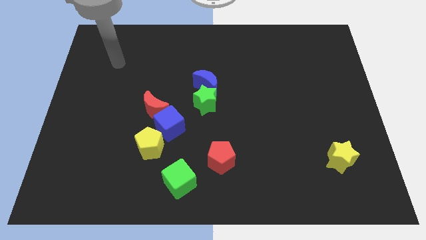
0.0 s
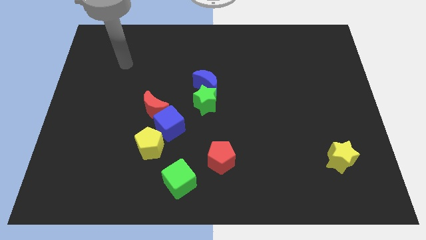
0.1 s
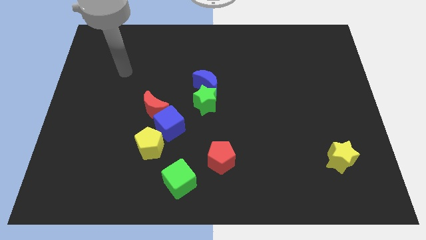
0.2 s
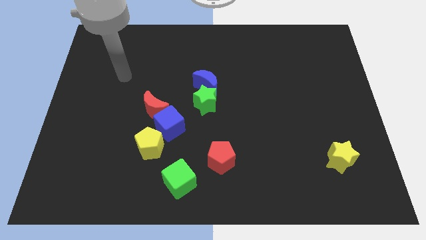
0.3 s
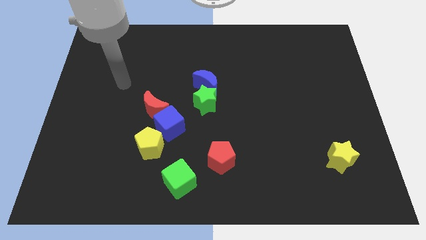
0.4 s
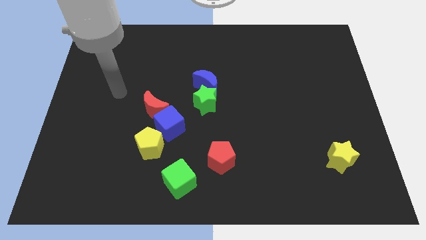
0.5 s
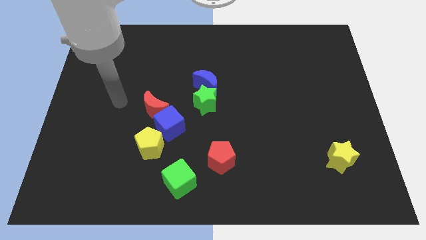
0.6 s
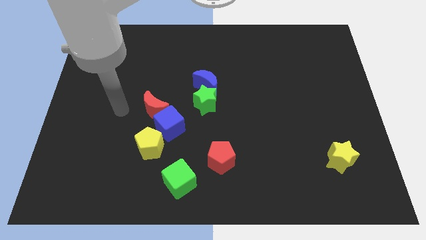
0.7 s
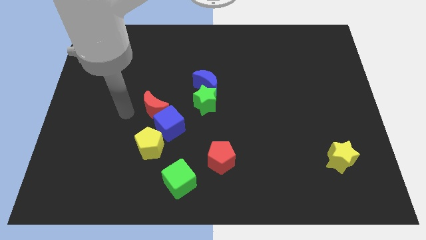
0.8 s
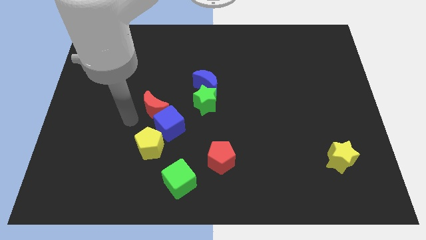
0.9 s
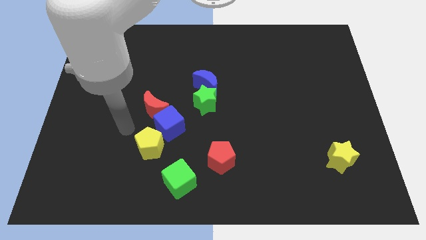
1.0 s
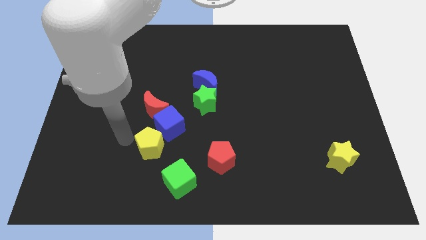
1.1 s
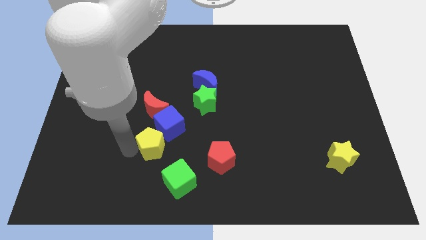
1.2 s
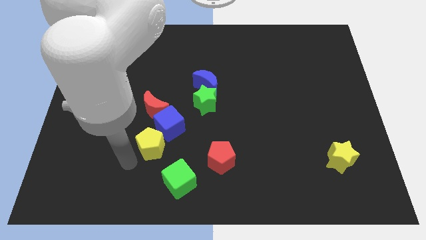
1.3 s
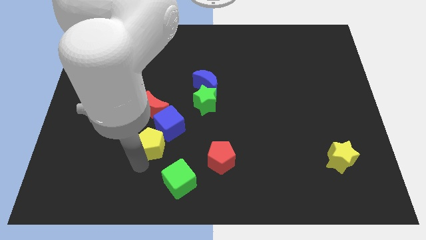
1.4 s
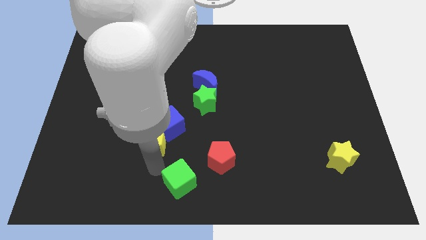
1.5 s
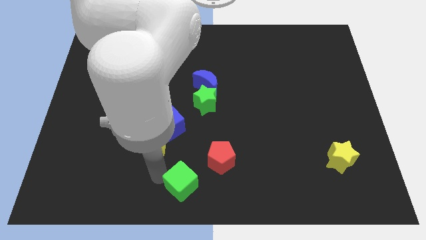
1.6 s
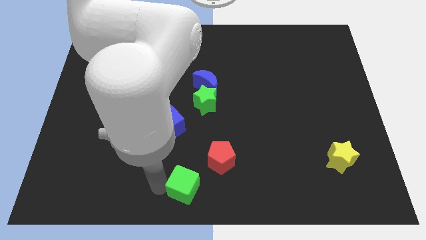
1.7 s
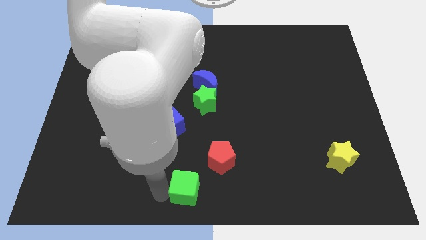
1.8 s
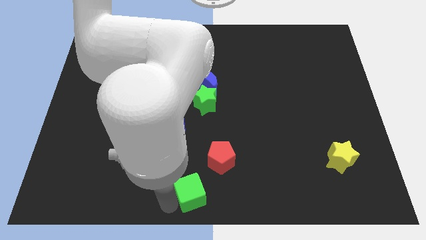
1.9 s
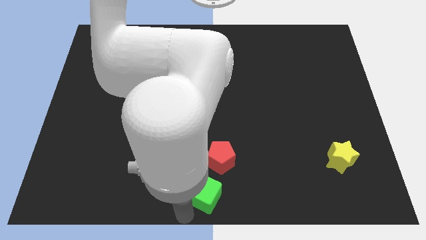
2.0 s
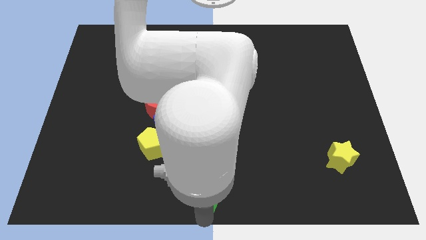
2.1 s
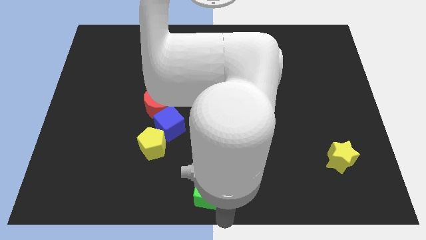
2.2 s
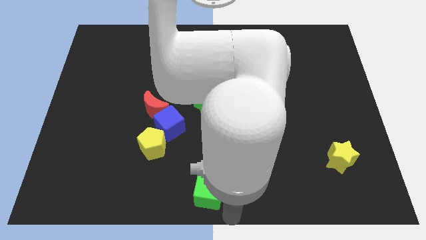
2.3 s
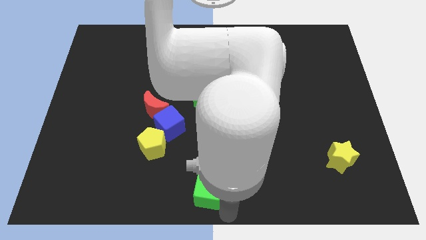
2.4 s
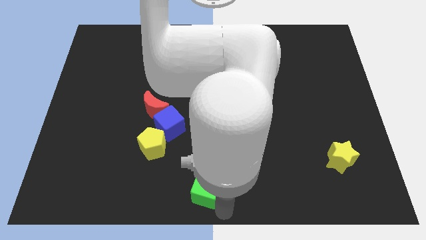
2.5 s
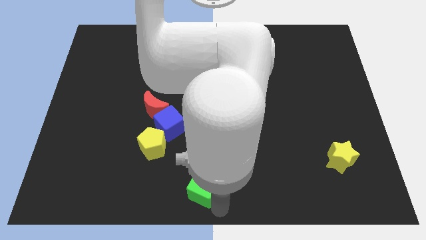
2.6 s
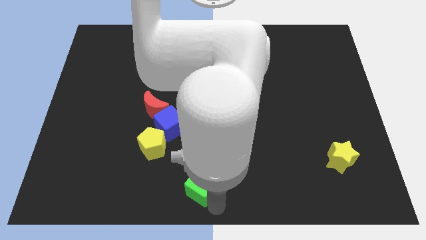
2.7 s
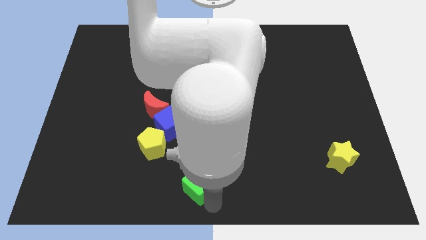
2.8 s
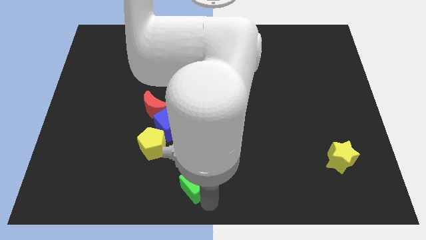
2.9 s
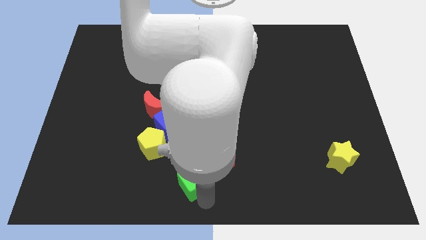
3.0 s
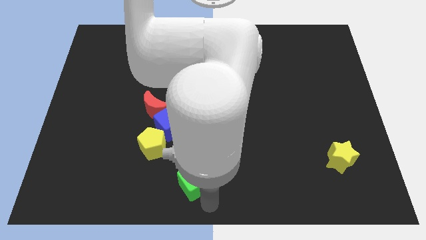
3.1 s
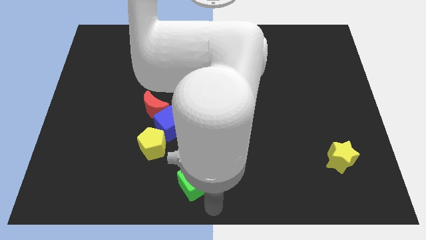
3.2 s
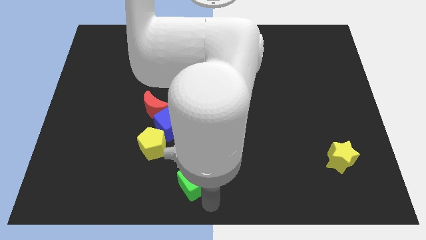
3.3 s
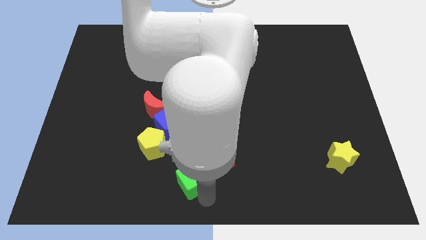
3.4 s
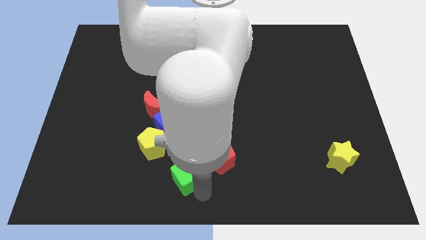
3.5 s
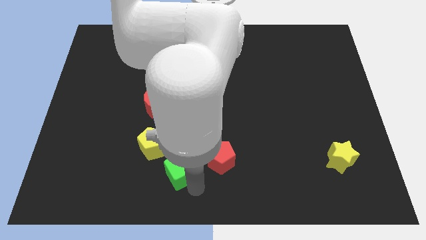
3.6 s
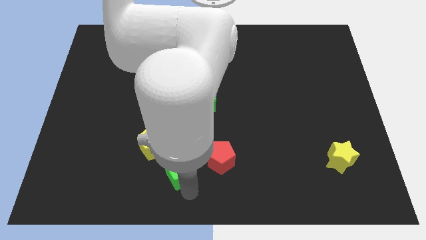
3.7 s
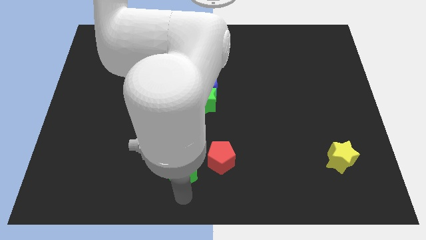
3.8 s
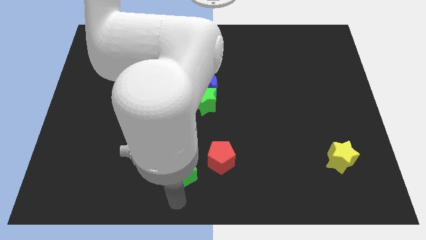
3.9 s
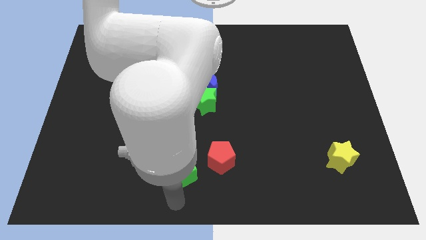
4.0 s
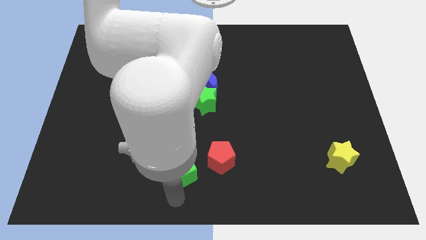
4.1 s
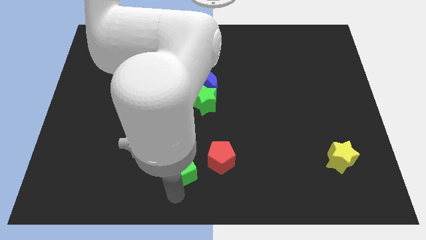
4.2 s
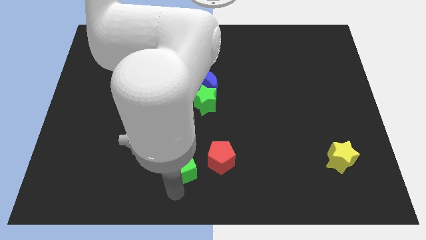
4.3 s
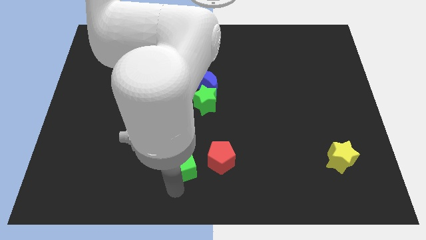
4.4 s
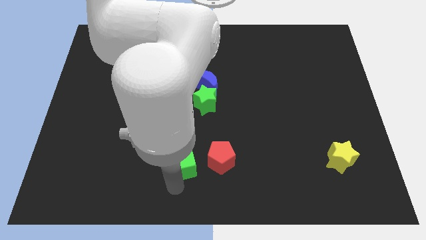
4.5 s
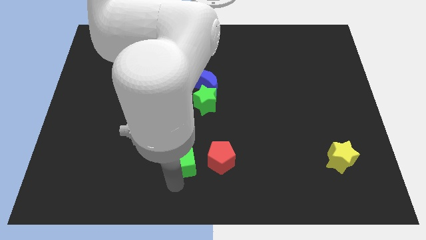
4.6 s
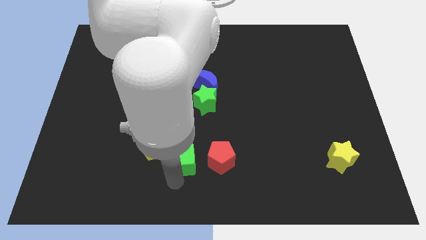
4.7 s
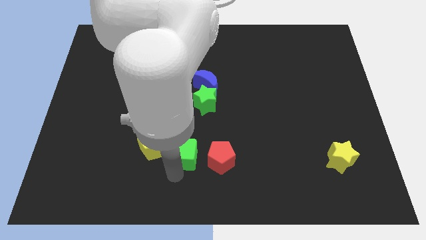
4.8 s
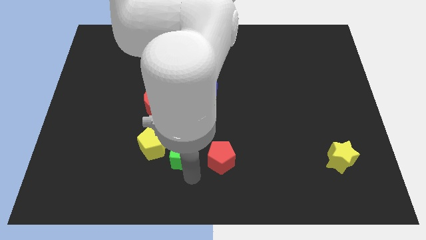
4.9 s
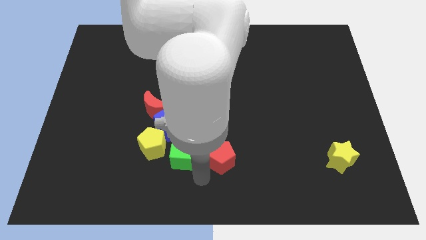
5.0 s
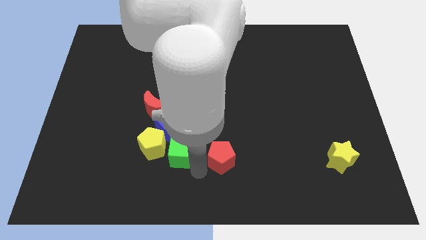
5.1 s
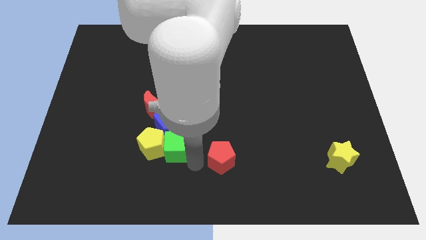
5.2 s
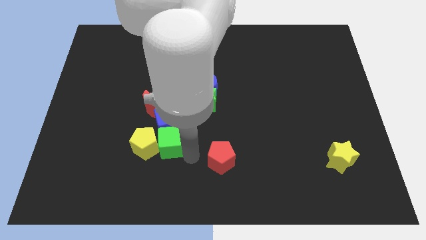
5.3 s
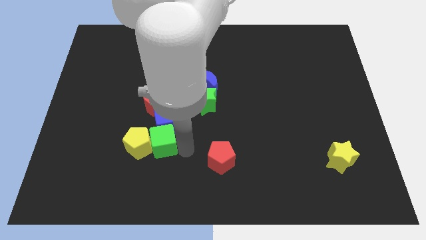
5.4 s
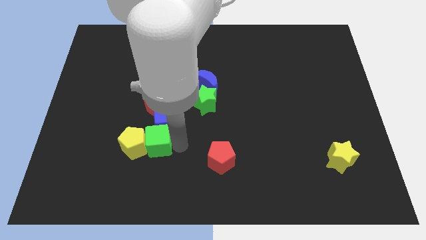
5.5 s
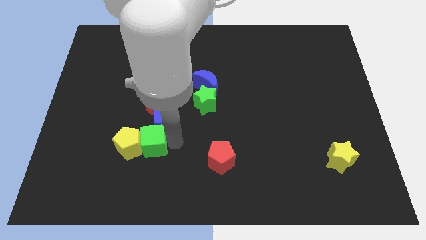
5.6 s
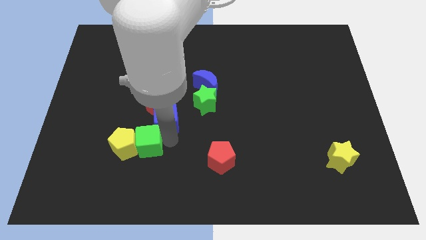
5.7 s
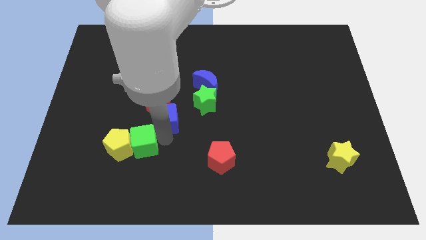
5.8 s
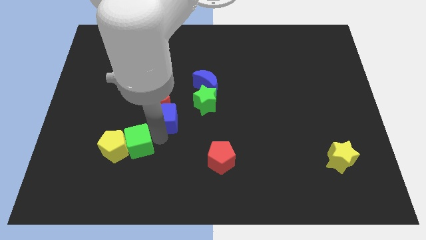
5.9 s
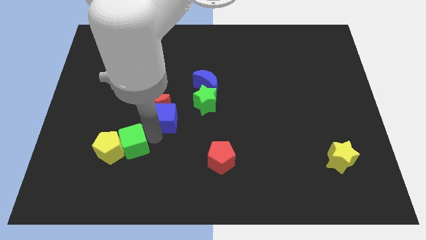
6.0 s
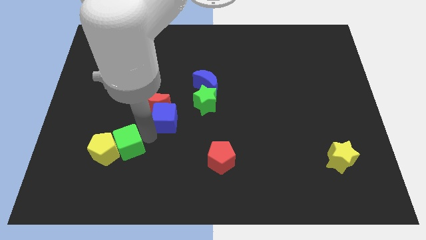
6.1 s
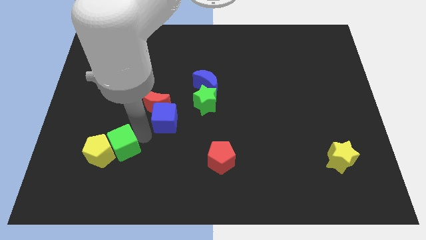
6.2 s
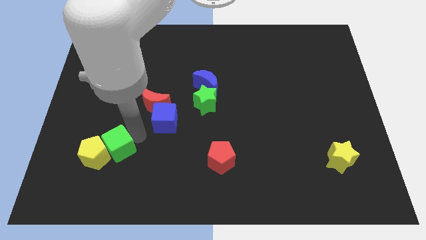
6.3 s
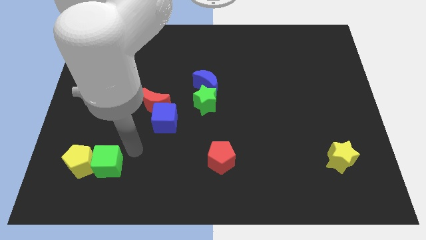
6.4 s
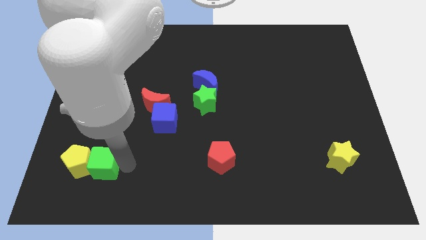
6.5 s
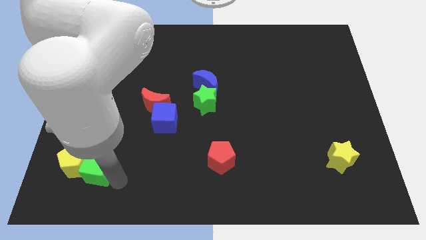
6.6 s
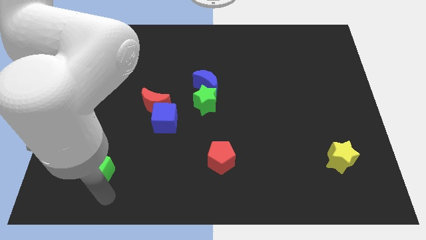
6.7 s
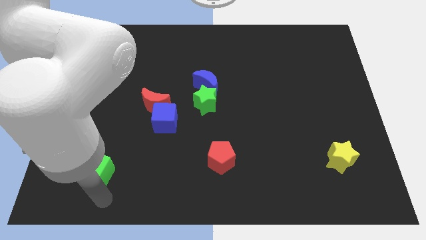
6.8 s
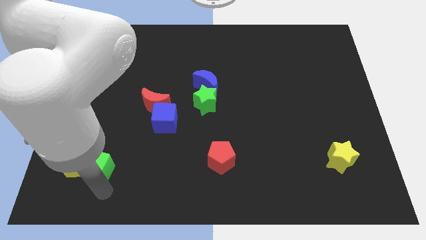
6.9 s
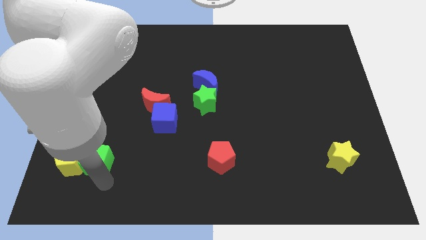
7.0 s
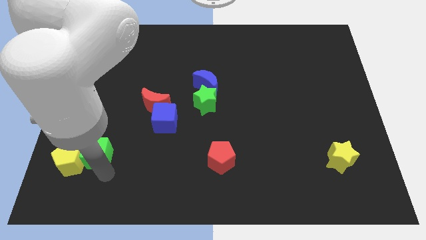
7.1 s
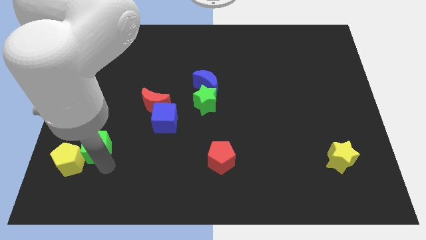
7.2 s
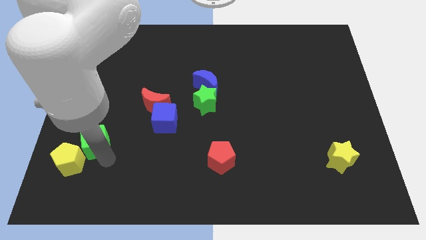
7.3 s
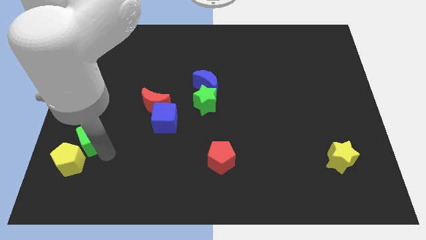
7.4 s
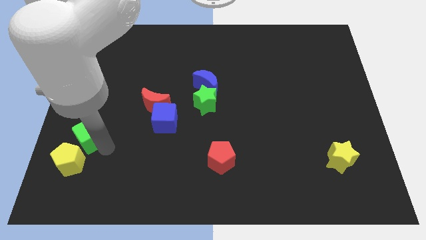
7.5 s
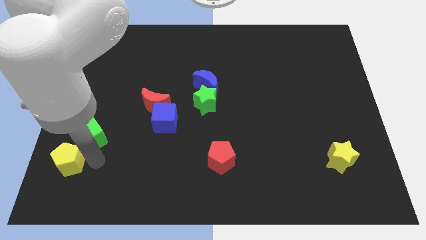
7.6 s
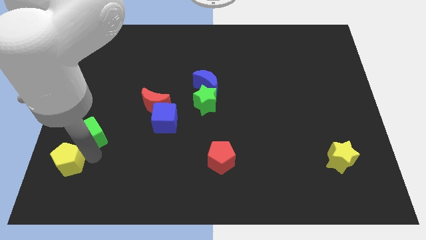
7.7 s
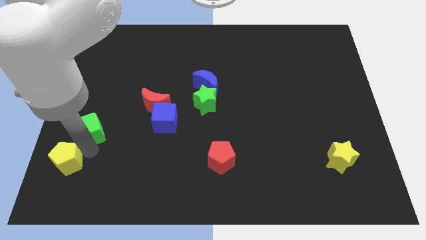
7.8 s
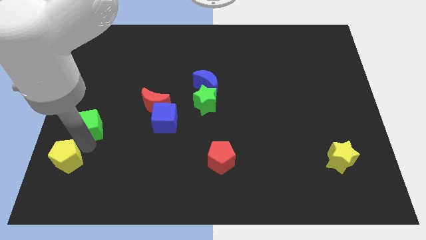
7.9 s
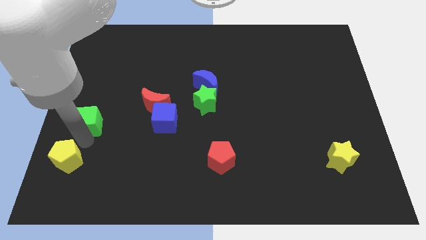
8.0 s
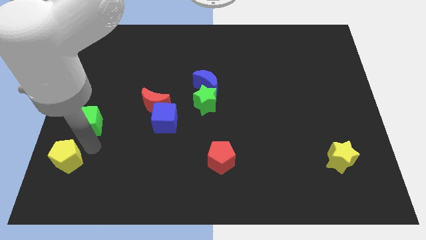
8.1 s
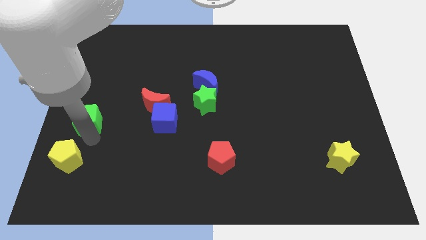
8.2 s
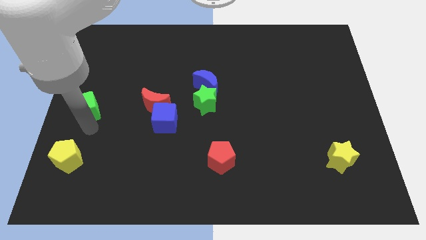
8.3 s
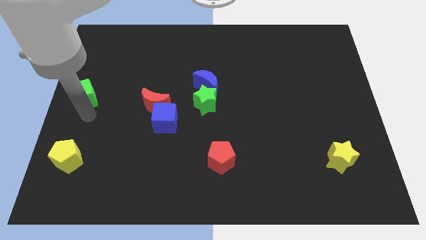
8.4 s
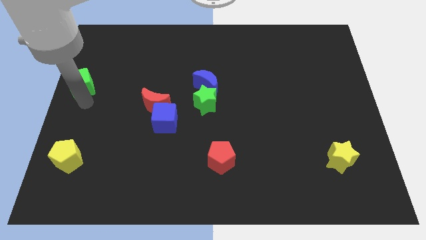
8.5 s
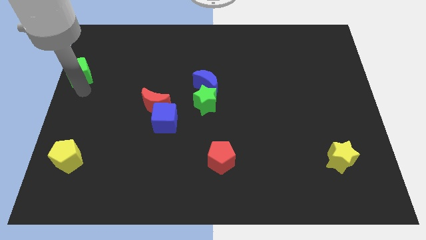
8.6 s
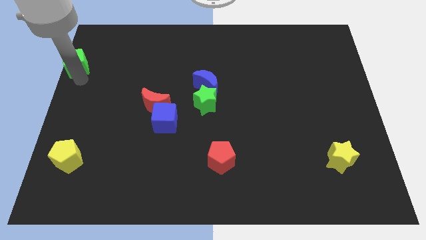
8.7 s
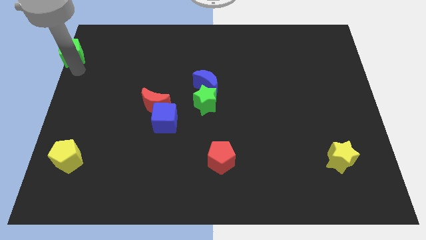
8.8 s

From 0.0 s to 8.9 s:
move the green cube to the top left corner
